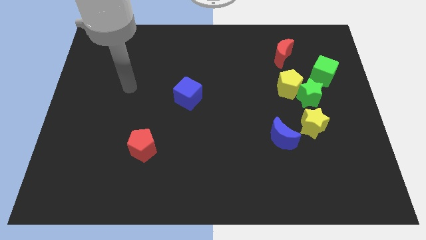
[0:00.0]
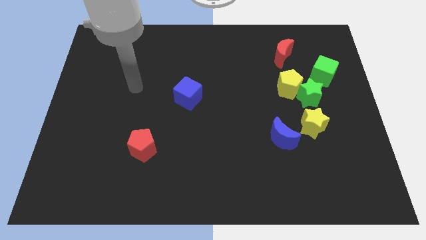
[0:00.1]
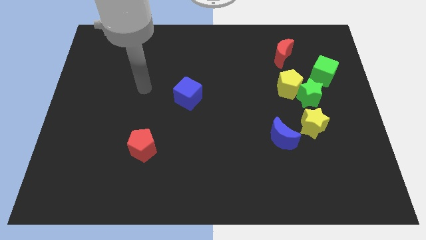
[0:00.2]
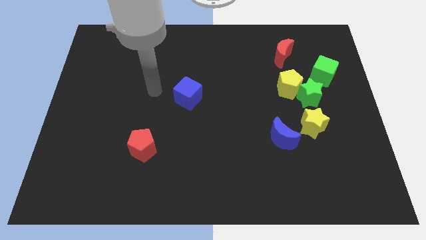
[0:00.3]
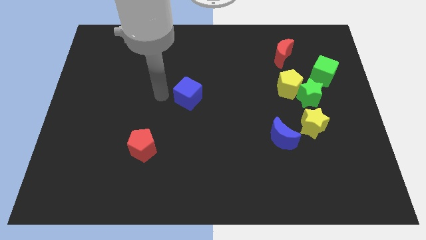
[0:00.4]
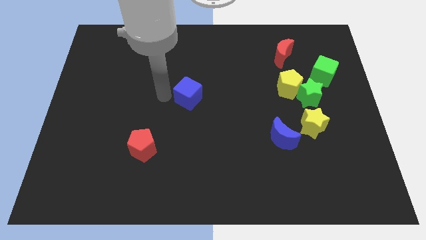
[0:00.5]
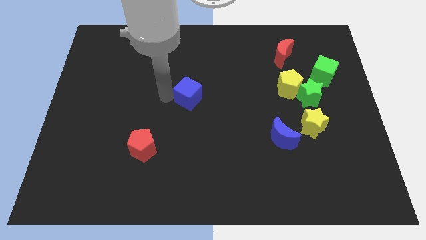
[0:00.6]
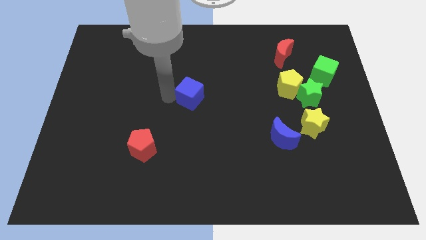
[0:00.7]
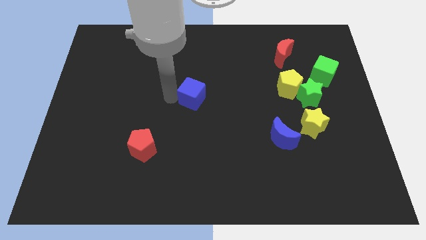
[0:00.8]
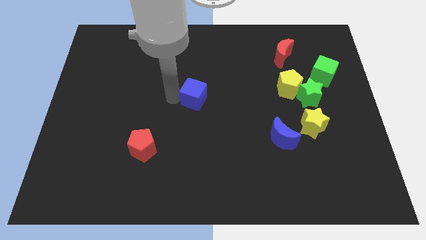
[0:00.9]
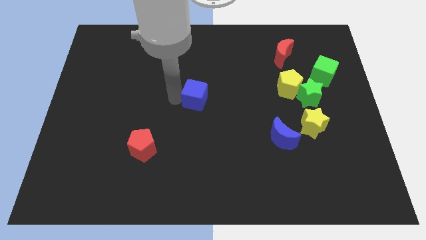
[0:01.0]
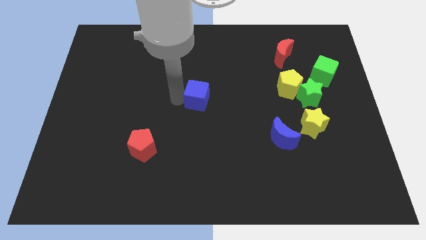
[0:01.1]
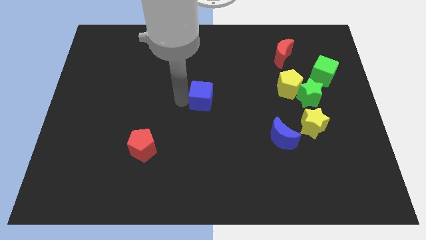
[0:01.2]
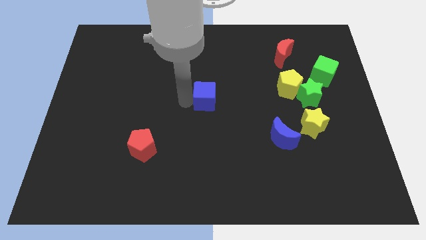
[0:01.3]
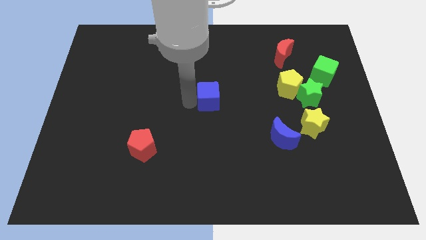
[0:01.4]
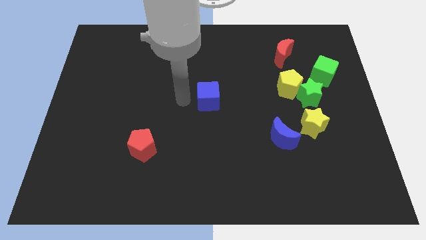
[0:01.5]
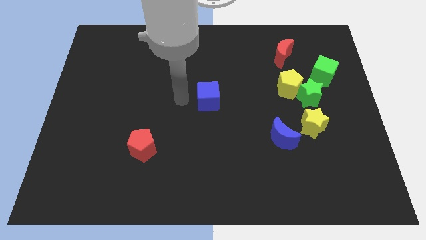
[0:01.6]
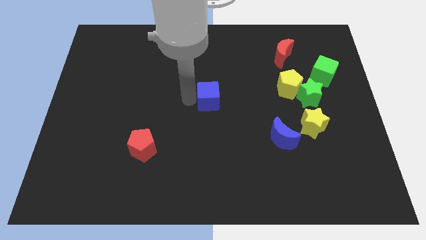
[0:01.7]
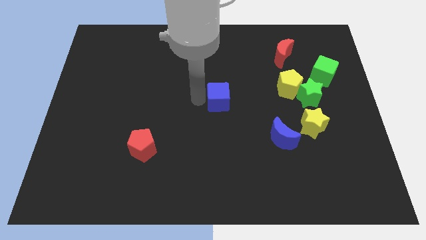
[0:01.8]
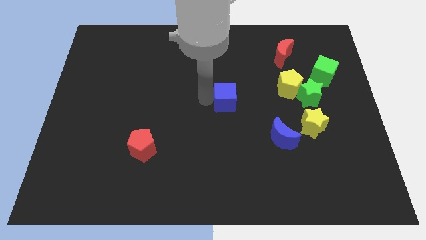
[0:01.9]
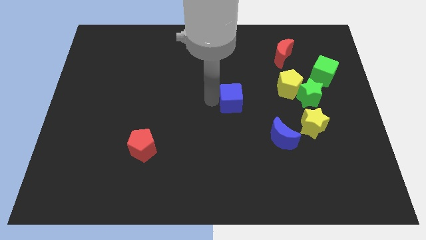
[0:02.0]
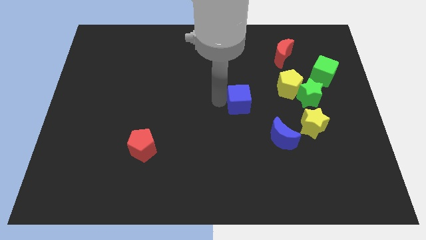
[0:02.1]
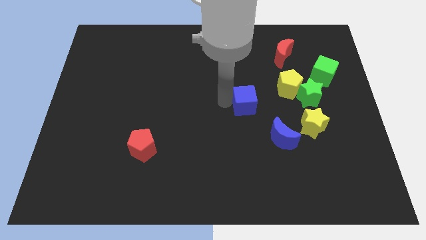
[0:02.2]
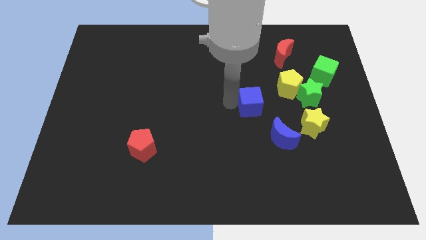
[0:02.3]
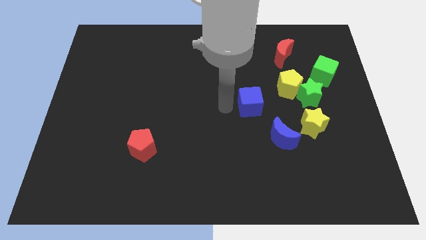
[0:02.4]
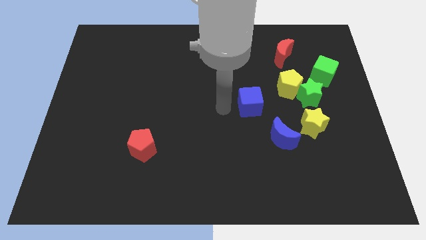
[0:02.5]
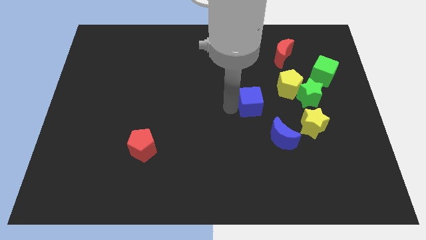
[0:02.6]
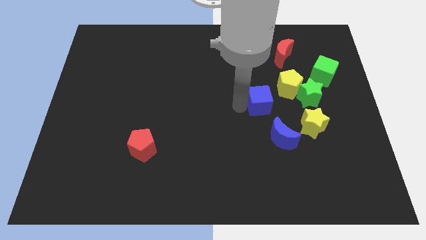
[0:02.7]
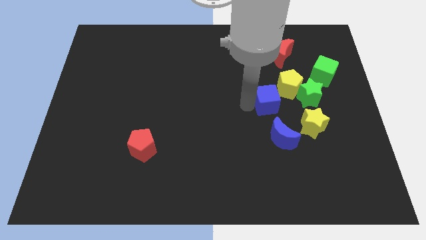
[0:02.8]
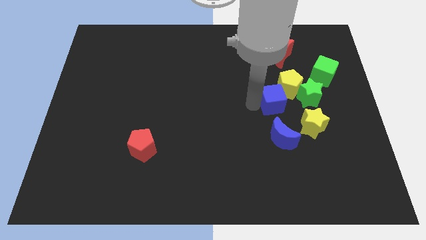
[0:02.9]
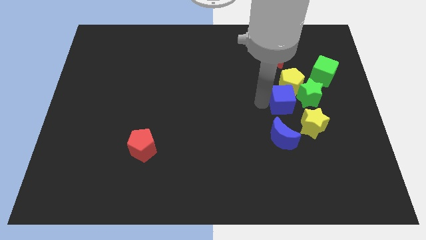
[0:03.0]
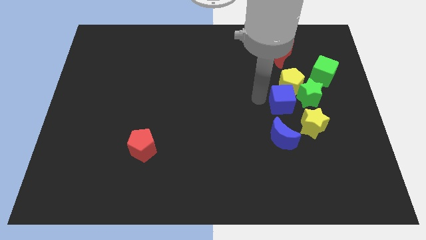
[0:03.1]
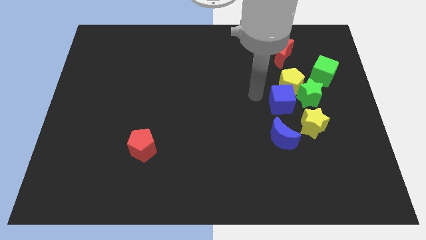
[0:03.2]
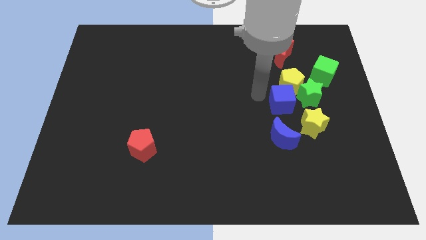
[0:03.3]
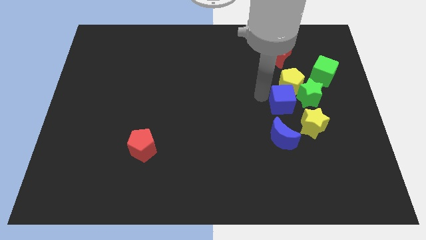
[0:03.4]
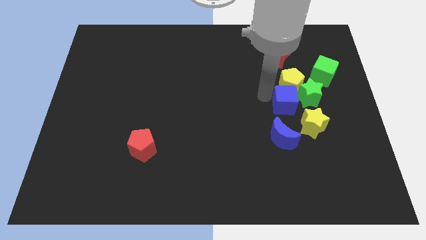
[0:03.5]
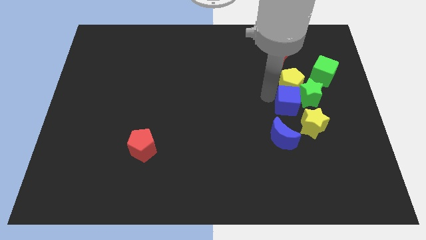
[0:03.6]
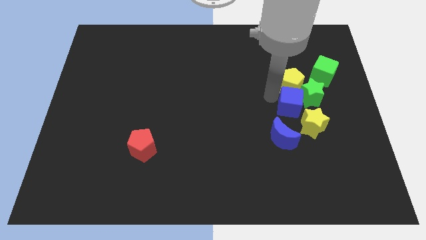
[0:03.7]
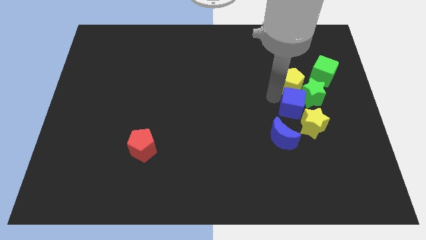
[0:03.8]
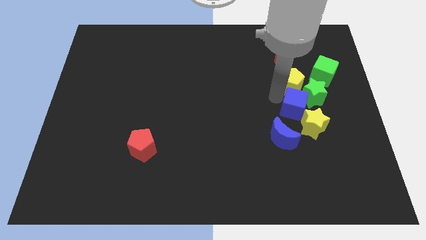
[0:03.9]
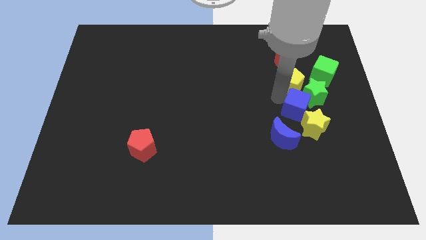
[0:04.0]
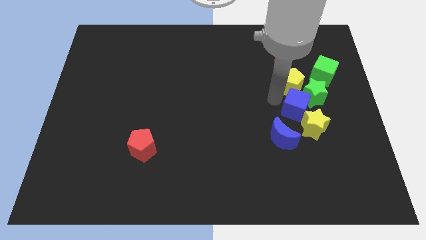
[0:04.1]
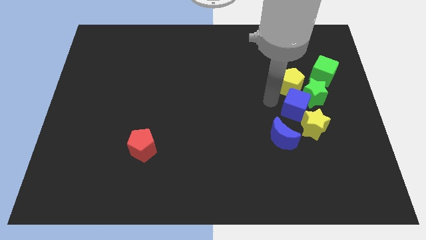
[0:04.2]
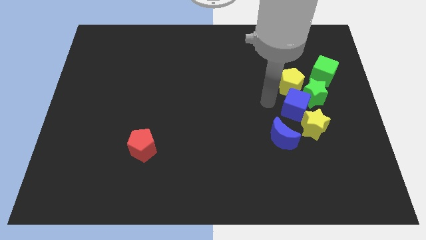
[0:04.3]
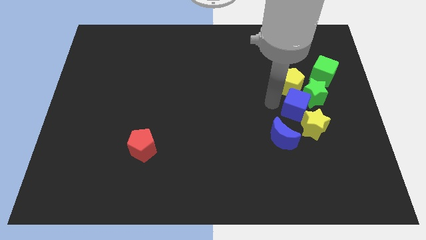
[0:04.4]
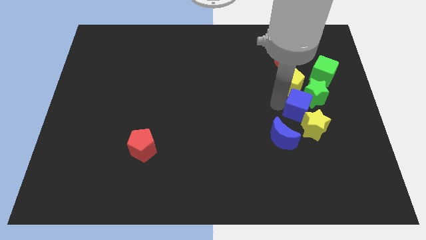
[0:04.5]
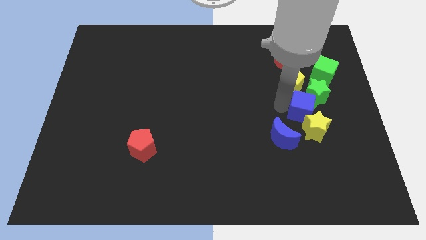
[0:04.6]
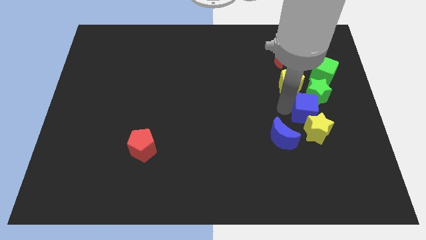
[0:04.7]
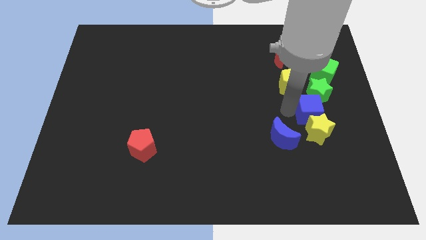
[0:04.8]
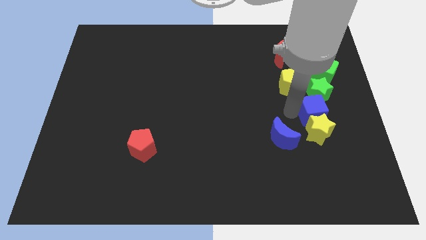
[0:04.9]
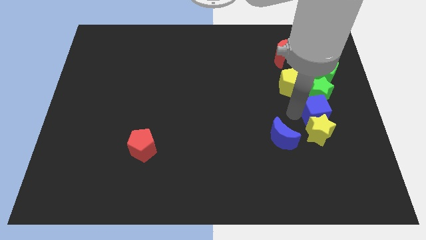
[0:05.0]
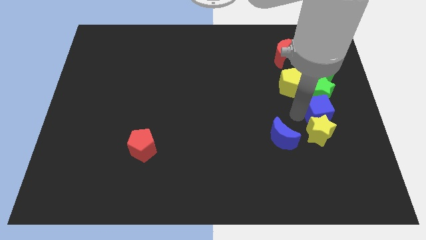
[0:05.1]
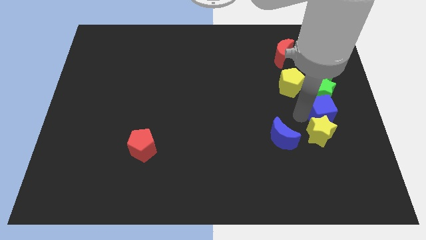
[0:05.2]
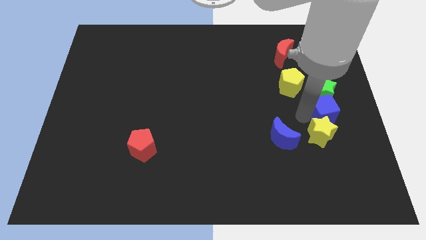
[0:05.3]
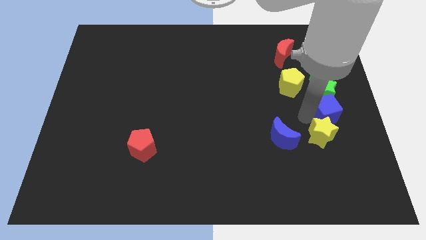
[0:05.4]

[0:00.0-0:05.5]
move the blue cube to the right side

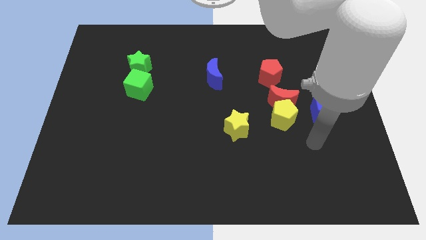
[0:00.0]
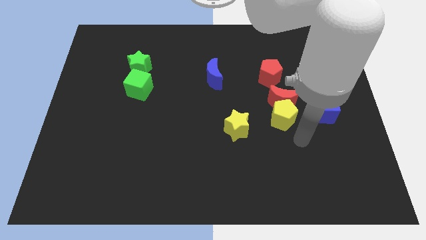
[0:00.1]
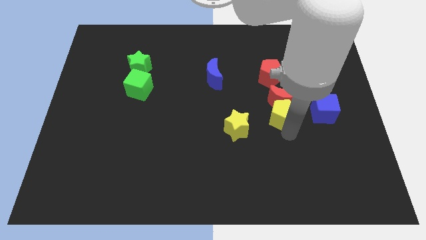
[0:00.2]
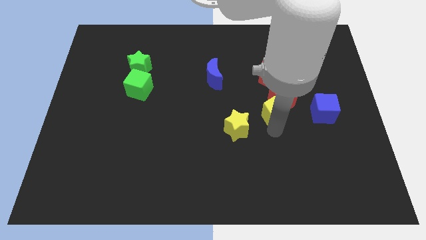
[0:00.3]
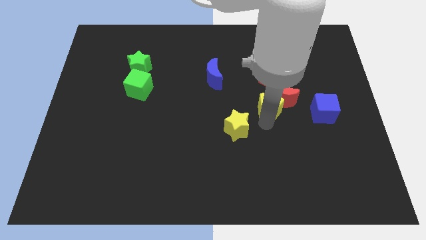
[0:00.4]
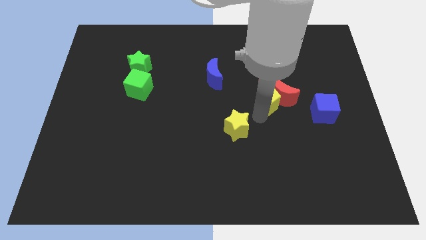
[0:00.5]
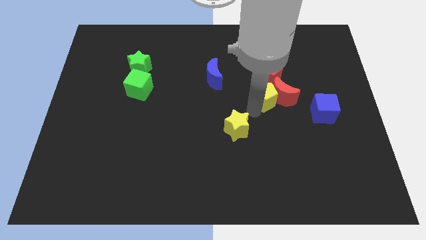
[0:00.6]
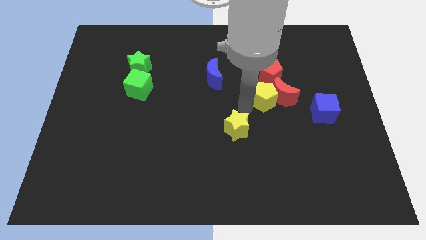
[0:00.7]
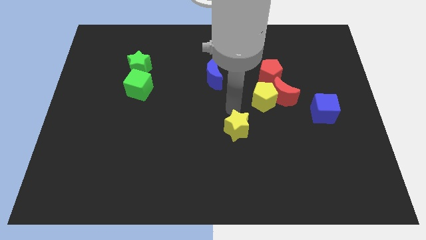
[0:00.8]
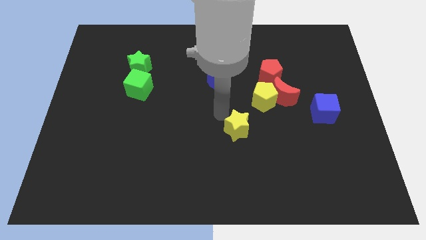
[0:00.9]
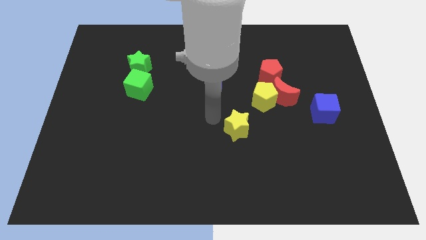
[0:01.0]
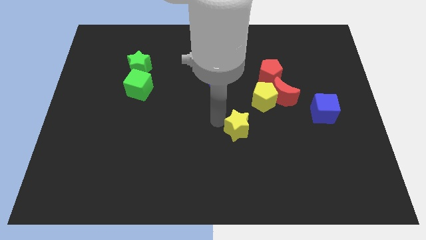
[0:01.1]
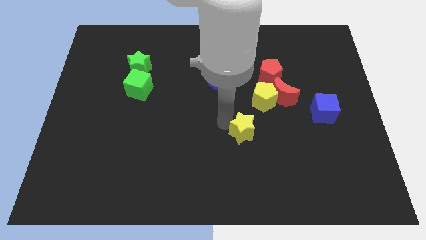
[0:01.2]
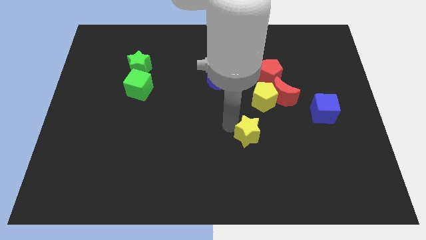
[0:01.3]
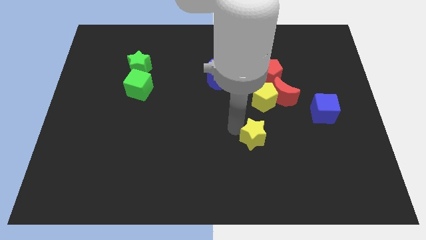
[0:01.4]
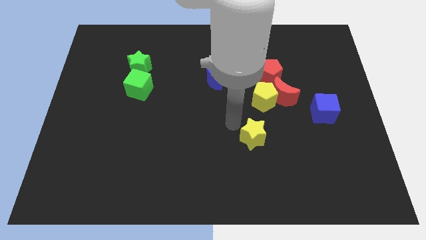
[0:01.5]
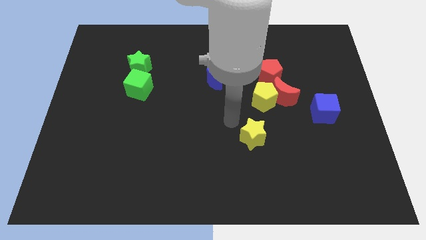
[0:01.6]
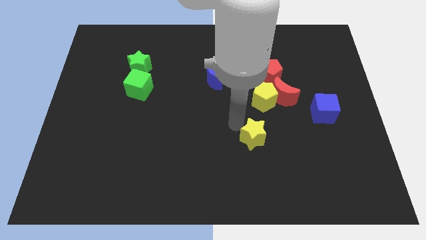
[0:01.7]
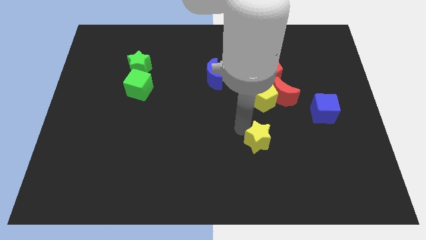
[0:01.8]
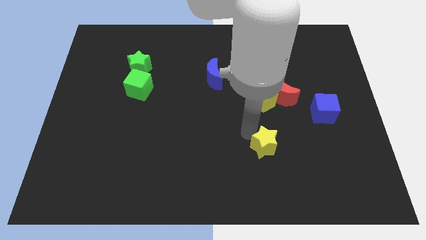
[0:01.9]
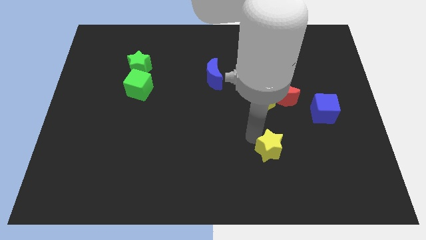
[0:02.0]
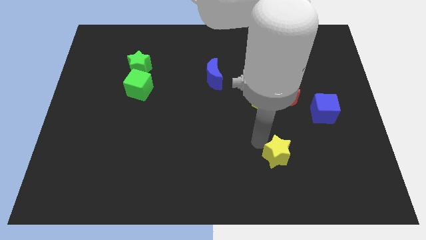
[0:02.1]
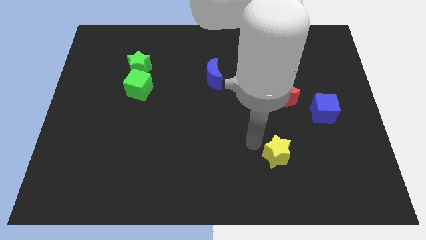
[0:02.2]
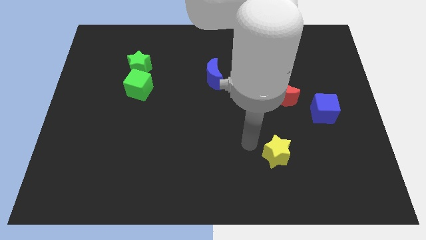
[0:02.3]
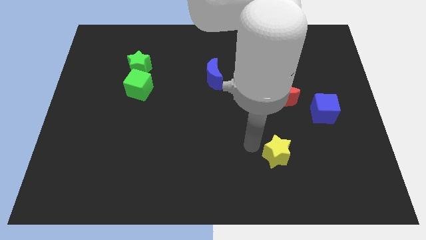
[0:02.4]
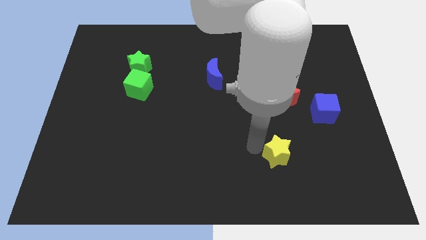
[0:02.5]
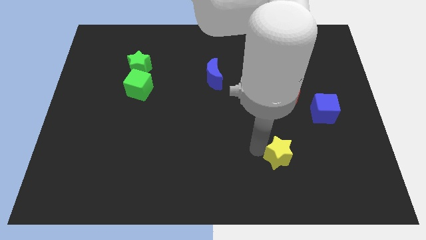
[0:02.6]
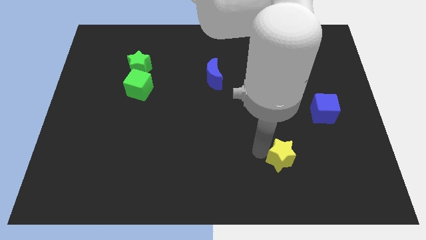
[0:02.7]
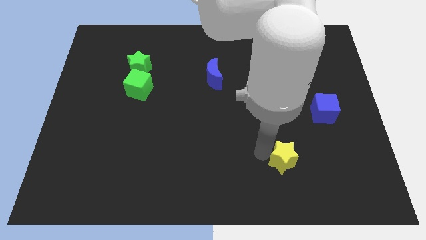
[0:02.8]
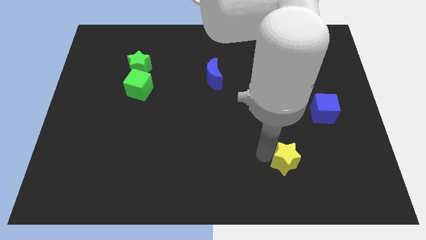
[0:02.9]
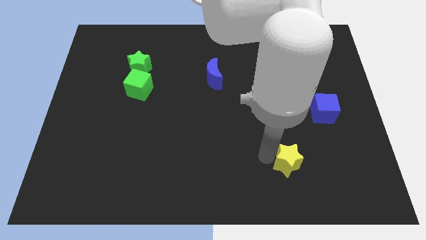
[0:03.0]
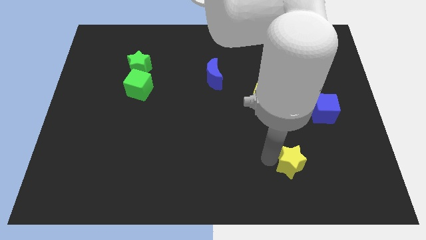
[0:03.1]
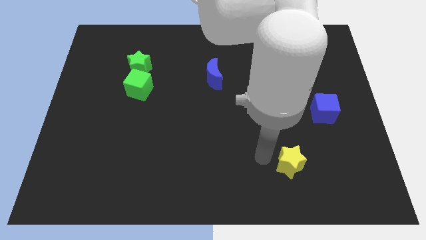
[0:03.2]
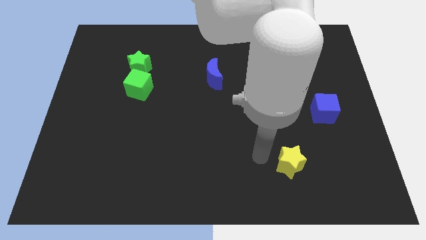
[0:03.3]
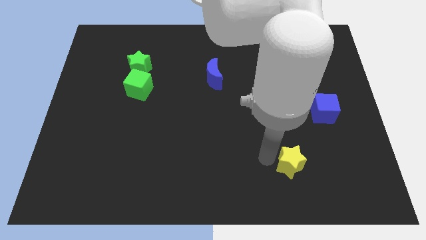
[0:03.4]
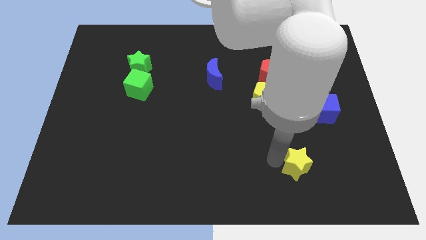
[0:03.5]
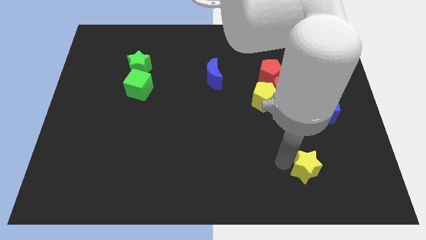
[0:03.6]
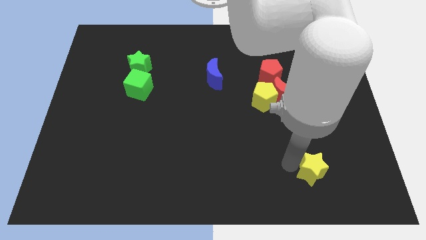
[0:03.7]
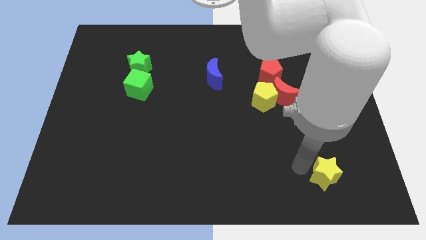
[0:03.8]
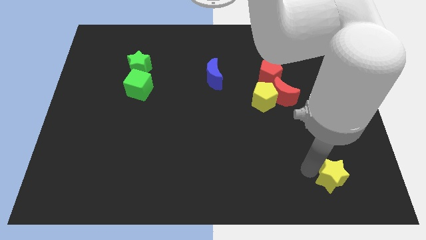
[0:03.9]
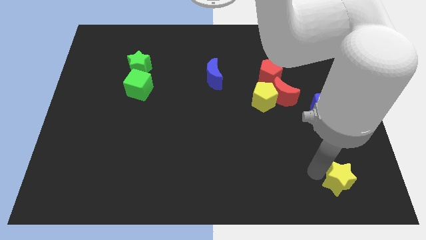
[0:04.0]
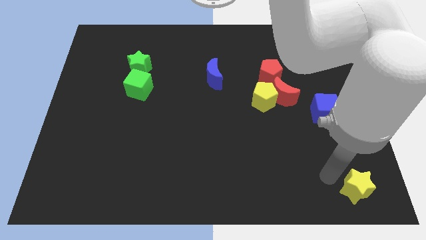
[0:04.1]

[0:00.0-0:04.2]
push the yellow star to the bottom right of the board
